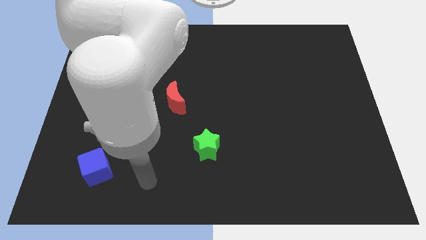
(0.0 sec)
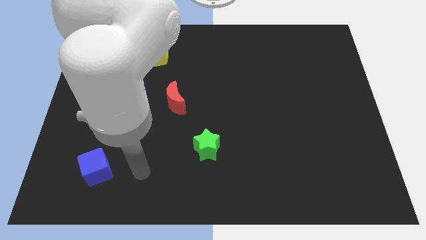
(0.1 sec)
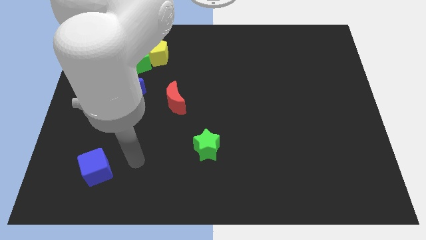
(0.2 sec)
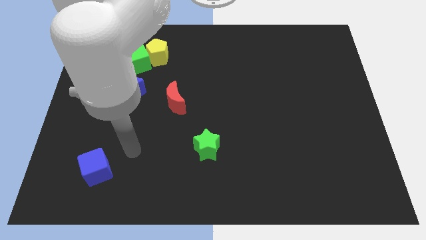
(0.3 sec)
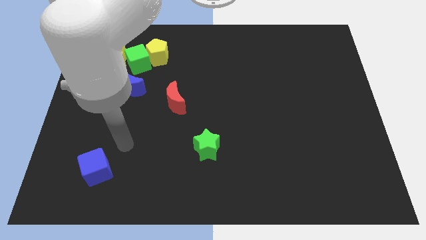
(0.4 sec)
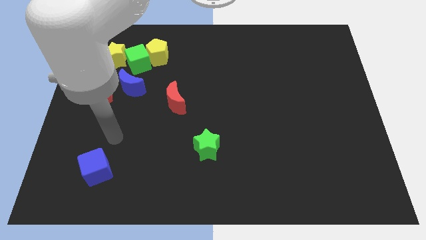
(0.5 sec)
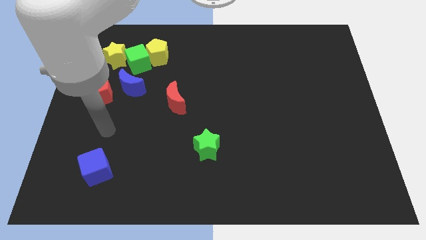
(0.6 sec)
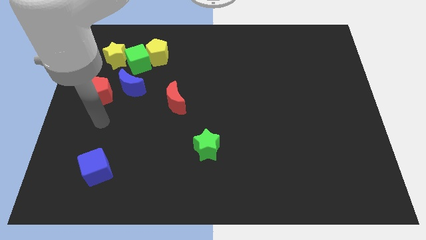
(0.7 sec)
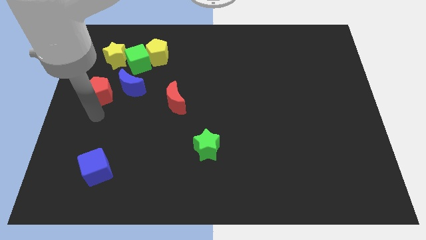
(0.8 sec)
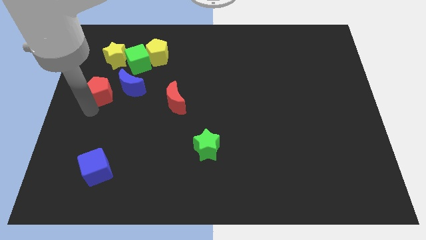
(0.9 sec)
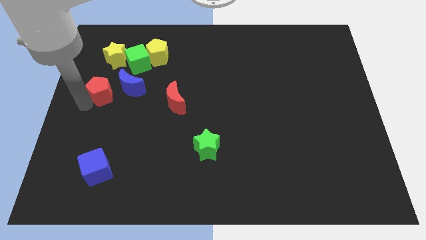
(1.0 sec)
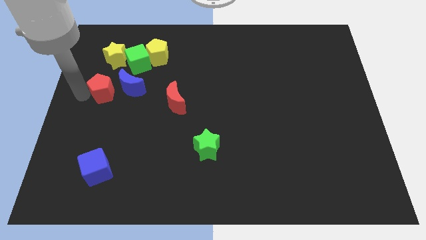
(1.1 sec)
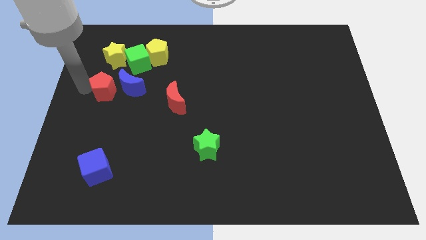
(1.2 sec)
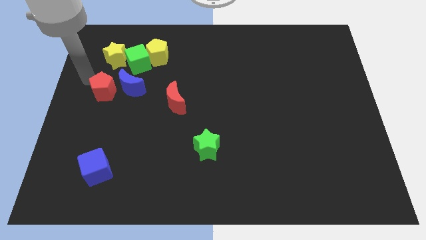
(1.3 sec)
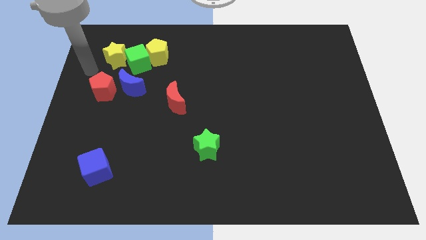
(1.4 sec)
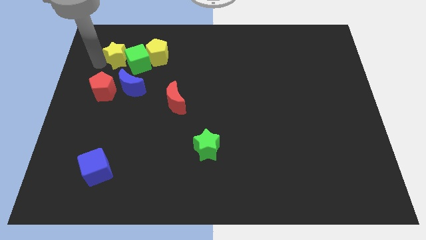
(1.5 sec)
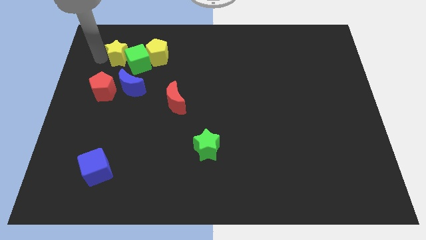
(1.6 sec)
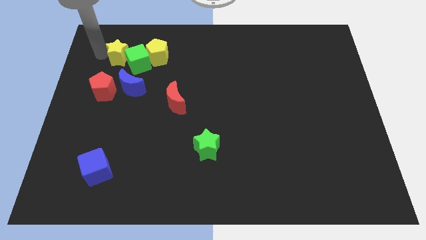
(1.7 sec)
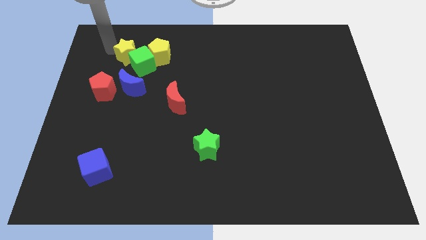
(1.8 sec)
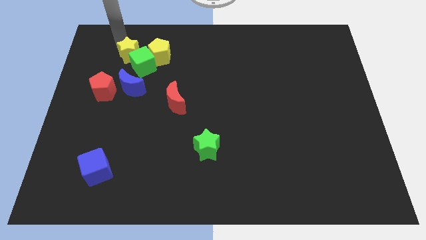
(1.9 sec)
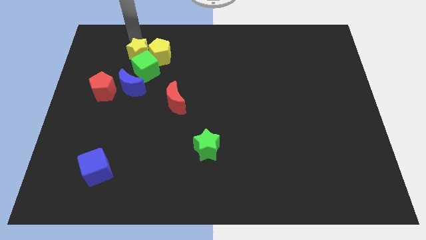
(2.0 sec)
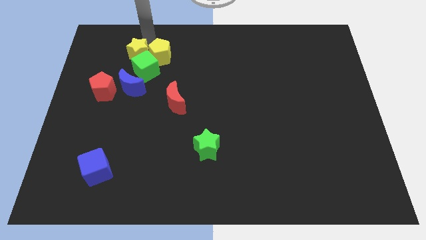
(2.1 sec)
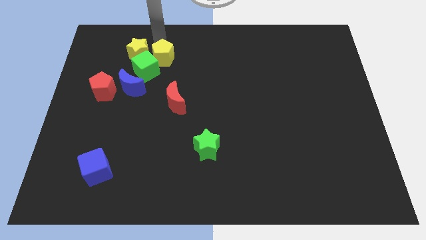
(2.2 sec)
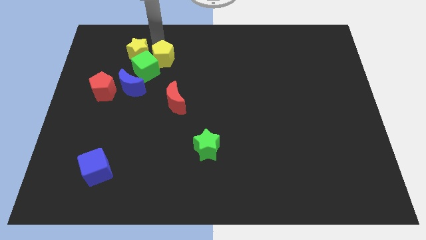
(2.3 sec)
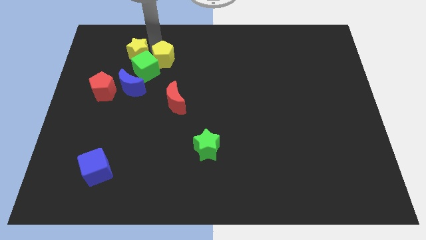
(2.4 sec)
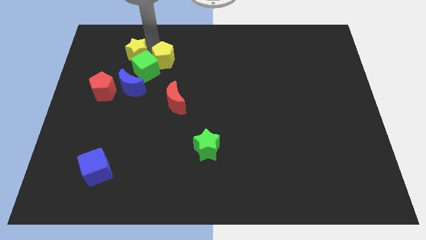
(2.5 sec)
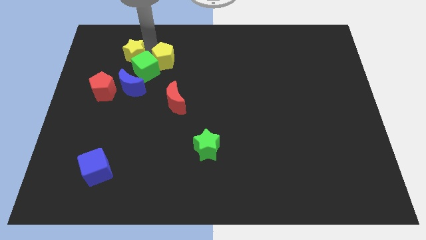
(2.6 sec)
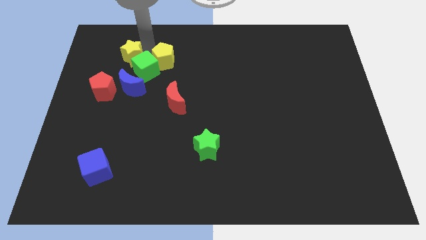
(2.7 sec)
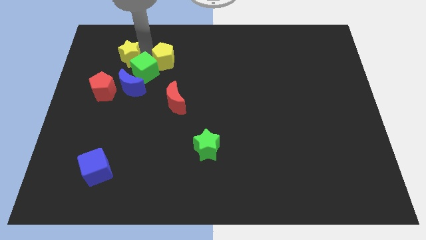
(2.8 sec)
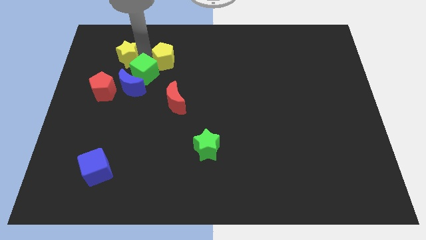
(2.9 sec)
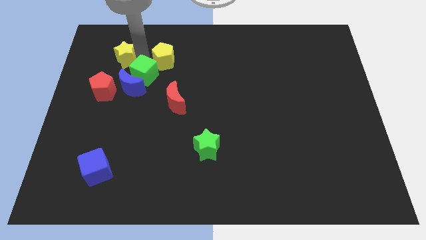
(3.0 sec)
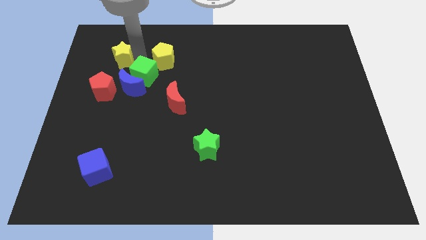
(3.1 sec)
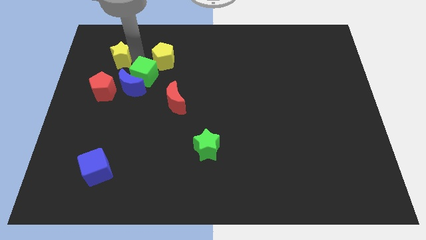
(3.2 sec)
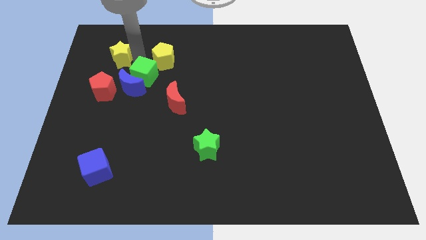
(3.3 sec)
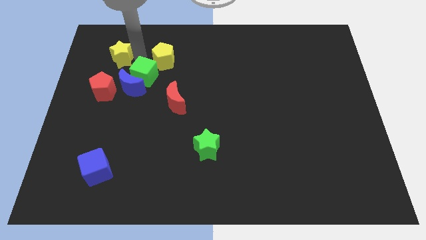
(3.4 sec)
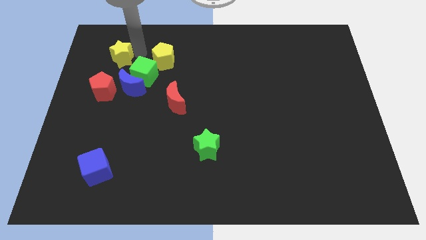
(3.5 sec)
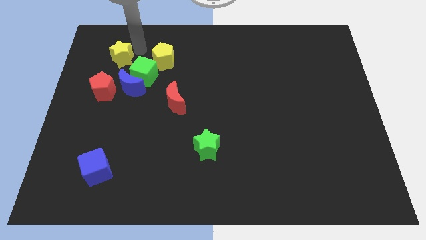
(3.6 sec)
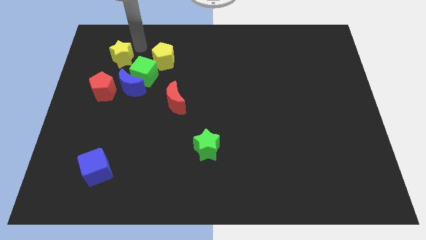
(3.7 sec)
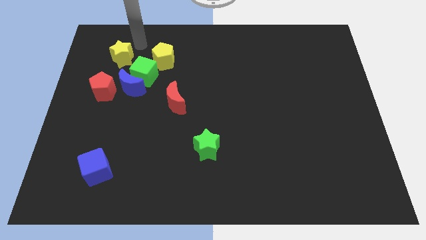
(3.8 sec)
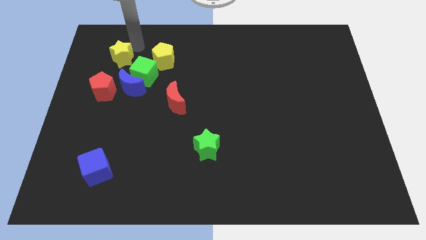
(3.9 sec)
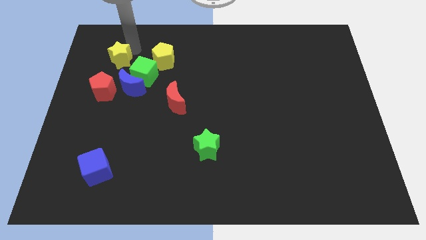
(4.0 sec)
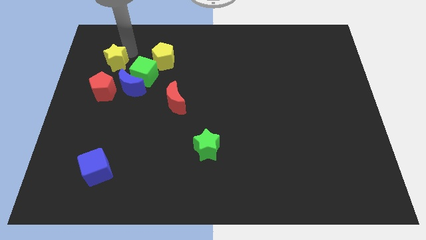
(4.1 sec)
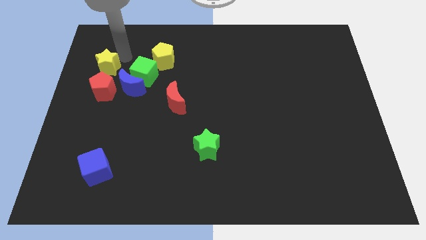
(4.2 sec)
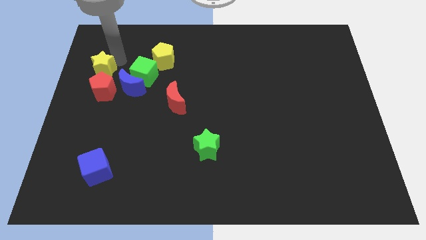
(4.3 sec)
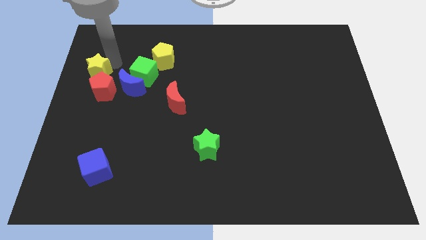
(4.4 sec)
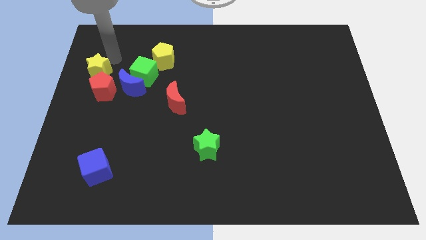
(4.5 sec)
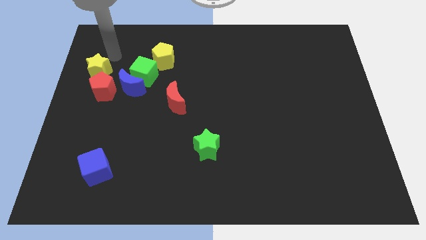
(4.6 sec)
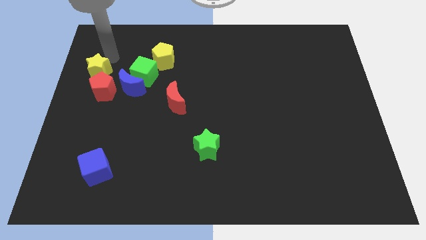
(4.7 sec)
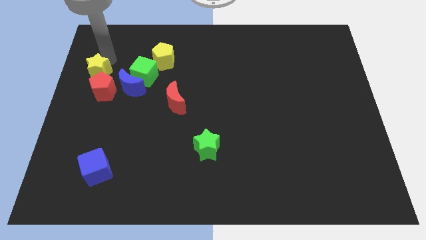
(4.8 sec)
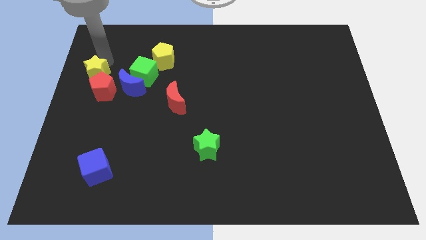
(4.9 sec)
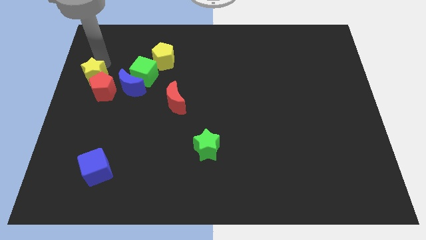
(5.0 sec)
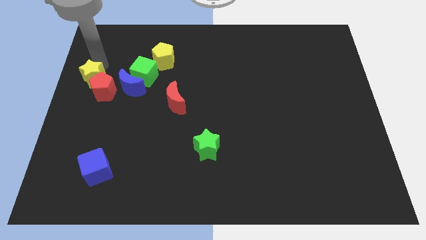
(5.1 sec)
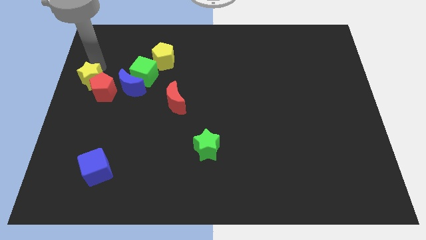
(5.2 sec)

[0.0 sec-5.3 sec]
slightly slide the yellow star down

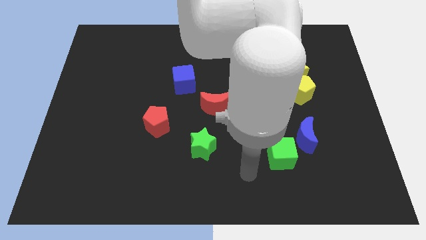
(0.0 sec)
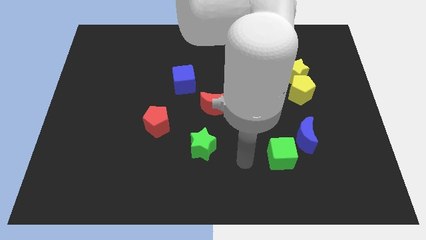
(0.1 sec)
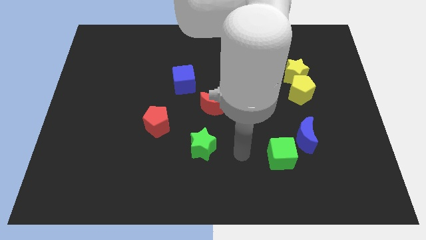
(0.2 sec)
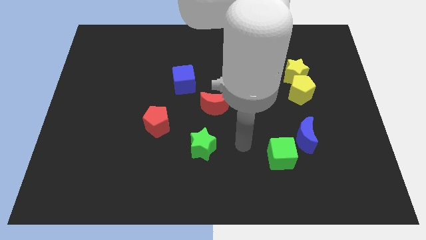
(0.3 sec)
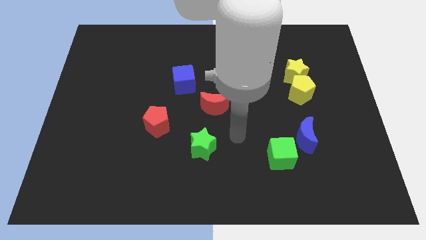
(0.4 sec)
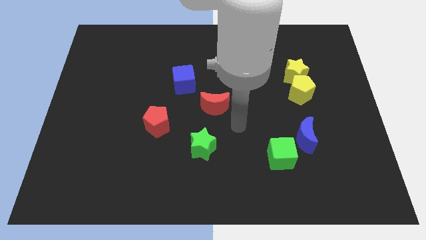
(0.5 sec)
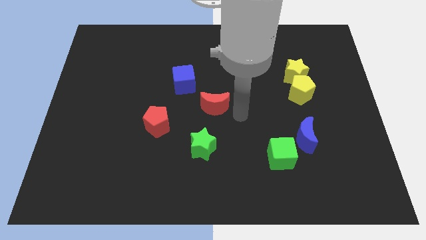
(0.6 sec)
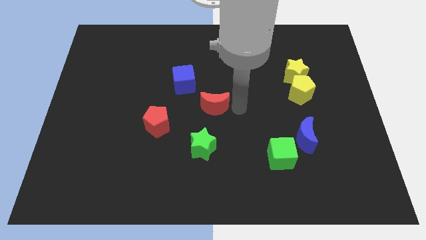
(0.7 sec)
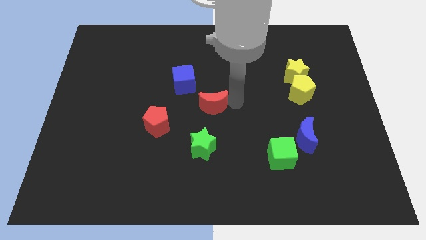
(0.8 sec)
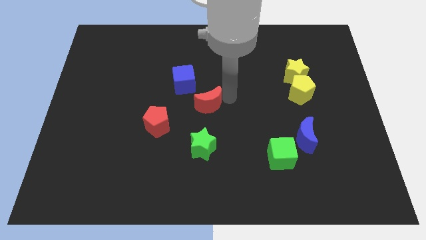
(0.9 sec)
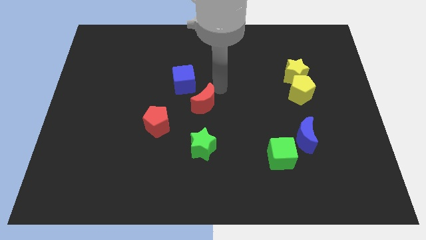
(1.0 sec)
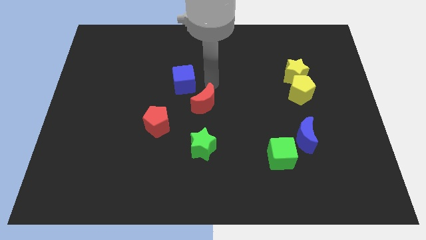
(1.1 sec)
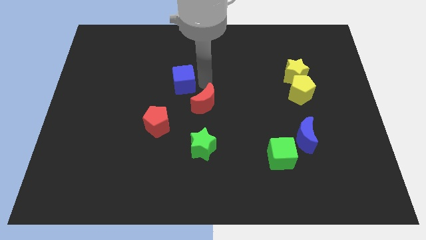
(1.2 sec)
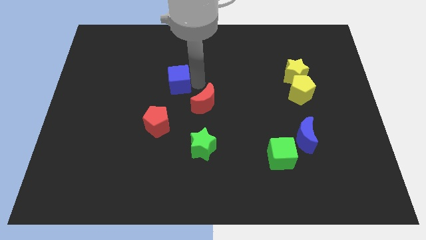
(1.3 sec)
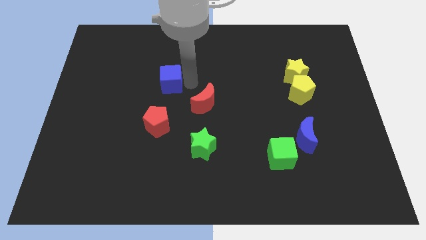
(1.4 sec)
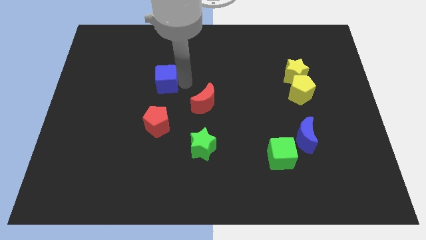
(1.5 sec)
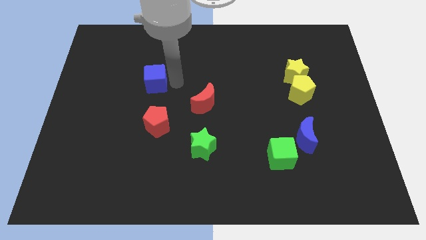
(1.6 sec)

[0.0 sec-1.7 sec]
move the blue cube to the left somewhat

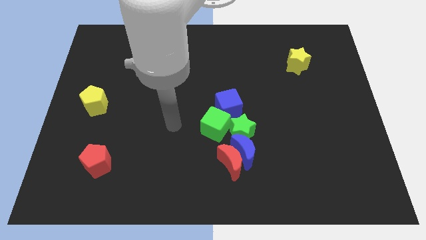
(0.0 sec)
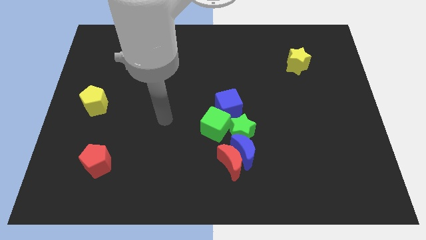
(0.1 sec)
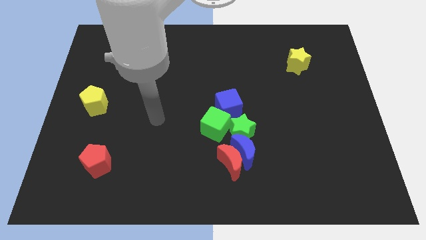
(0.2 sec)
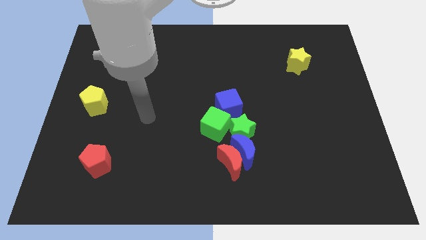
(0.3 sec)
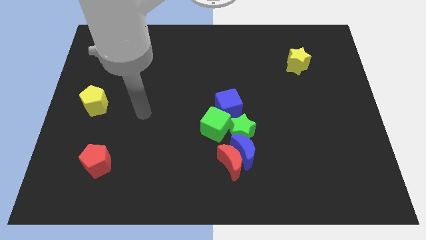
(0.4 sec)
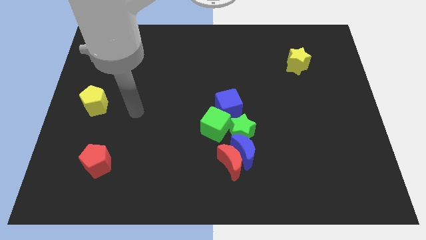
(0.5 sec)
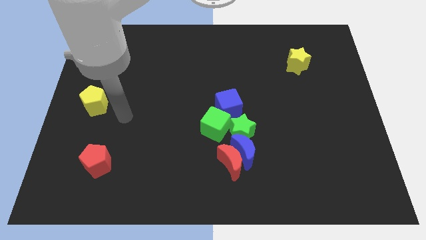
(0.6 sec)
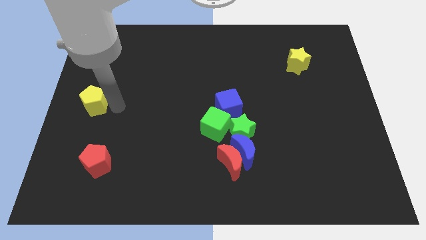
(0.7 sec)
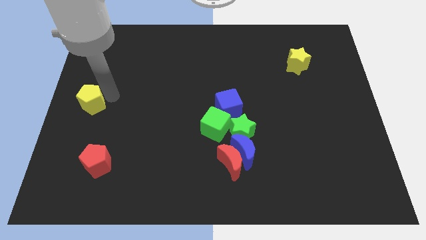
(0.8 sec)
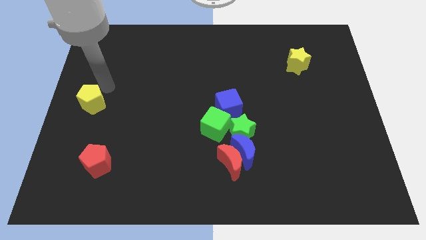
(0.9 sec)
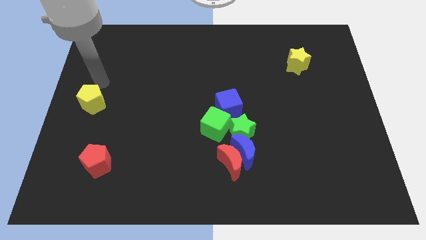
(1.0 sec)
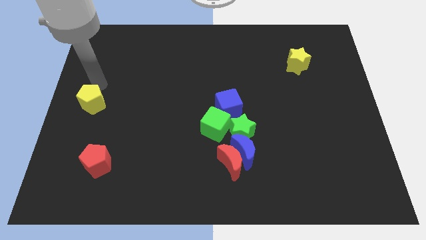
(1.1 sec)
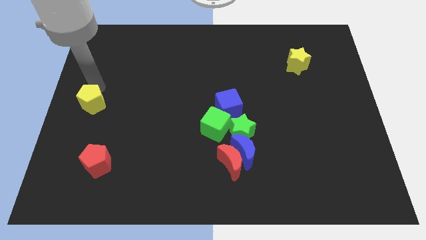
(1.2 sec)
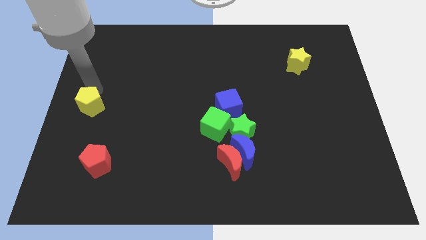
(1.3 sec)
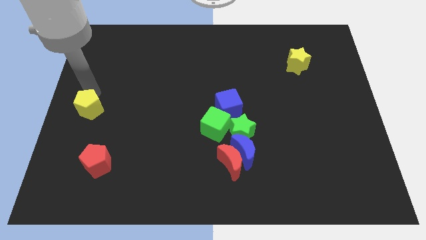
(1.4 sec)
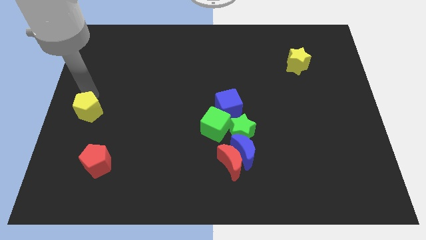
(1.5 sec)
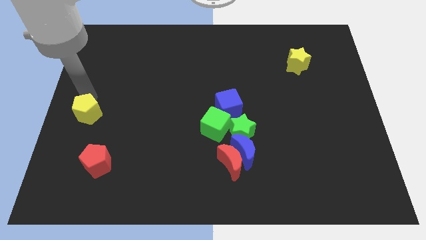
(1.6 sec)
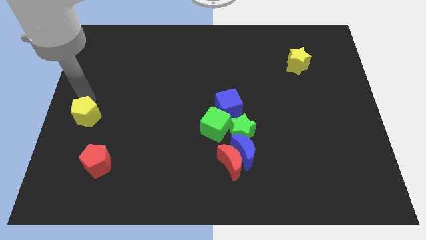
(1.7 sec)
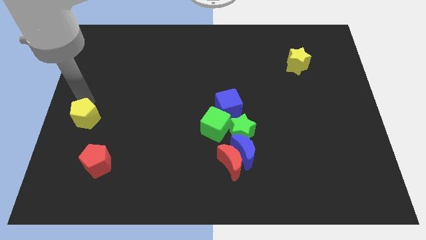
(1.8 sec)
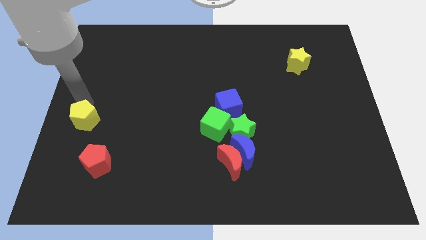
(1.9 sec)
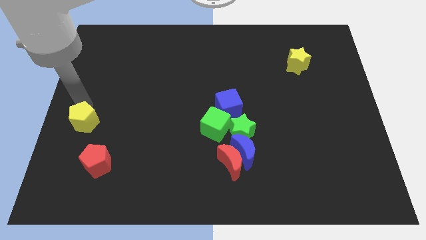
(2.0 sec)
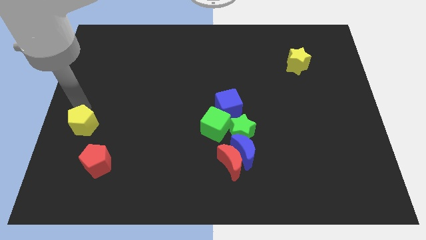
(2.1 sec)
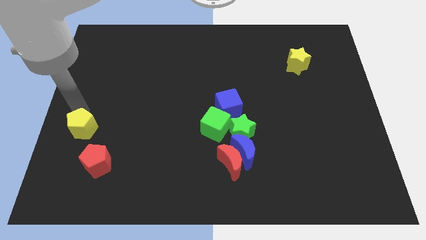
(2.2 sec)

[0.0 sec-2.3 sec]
move the yellow pentagon a little bit down
